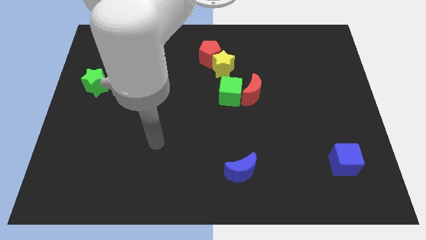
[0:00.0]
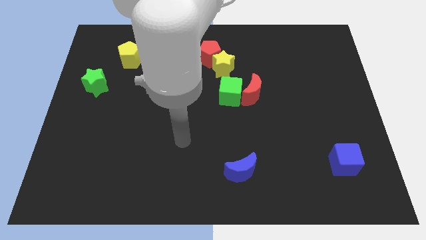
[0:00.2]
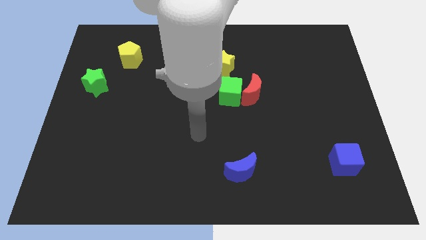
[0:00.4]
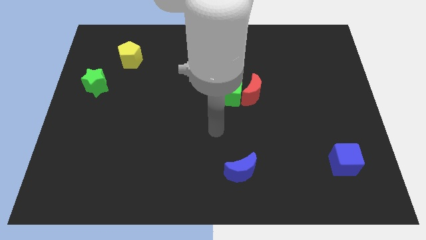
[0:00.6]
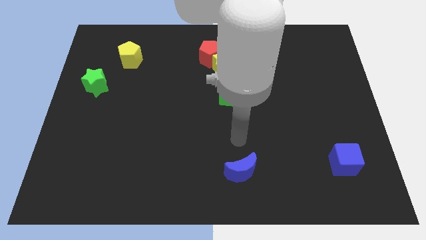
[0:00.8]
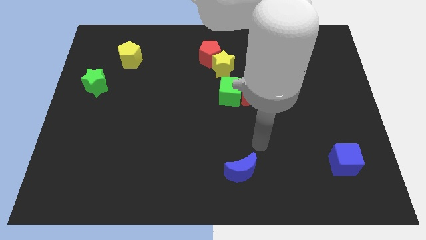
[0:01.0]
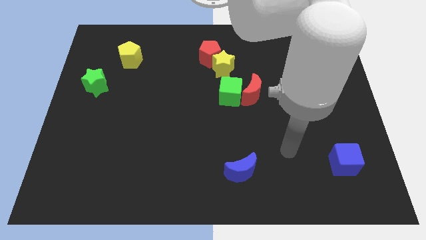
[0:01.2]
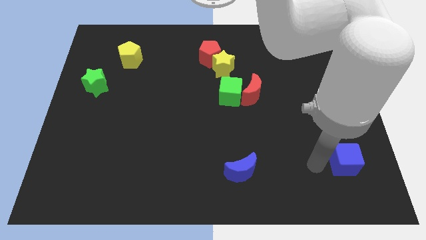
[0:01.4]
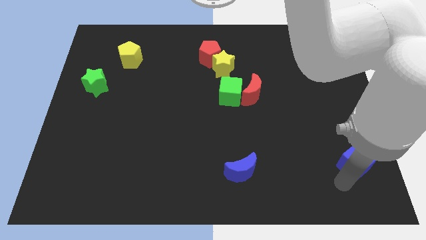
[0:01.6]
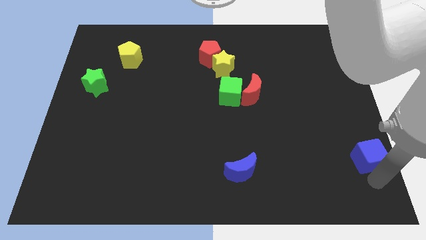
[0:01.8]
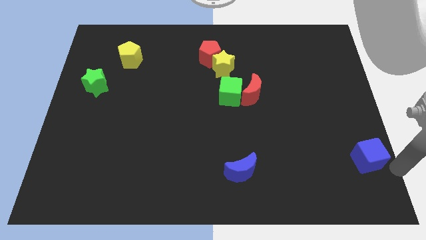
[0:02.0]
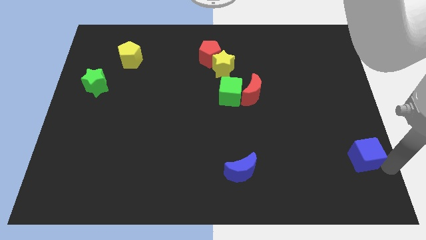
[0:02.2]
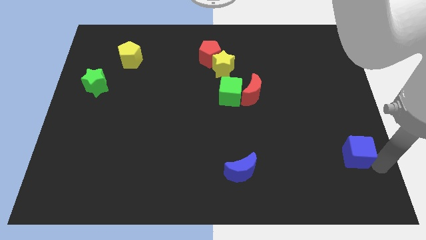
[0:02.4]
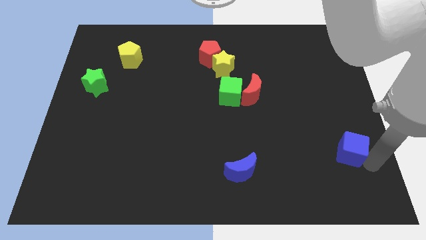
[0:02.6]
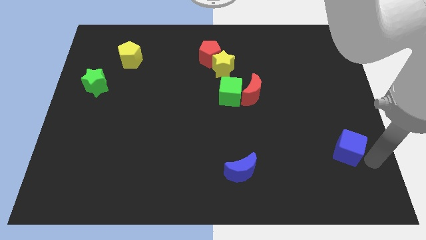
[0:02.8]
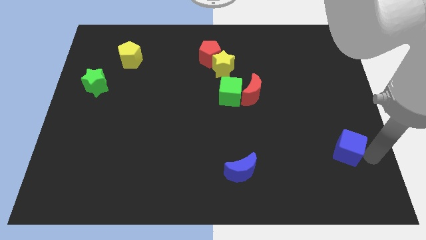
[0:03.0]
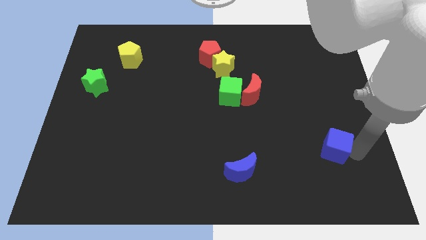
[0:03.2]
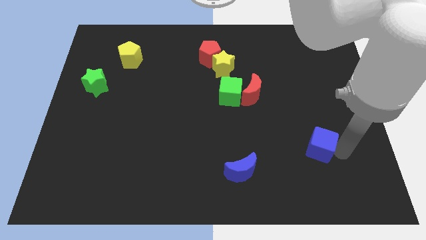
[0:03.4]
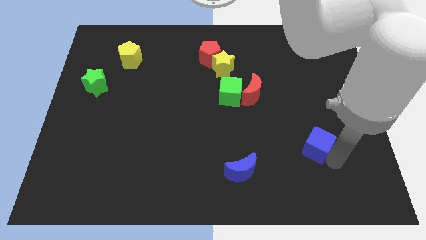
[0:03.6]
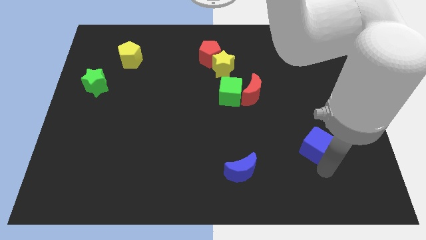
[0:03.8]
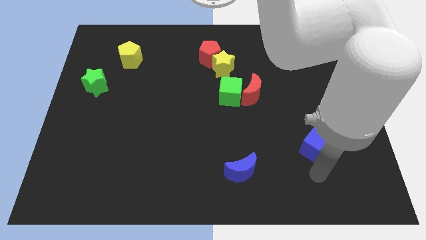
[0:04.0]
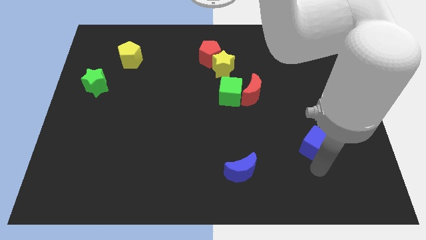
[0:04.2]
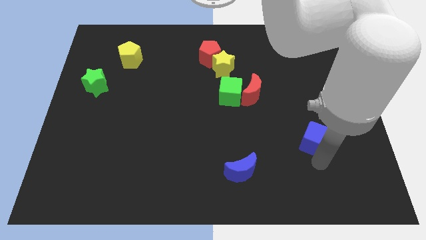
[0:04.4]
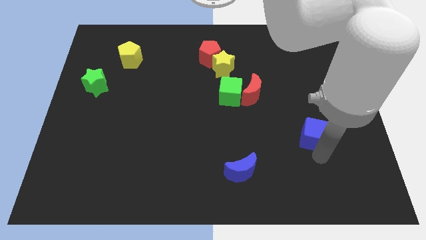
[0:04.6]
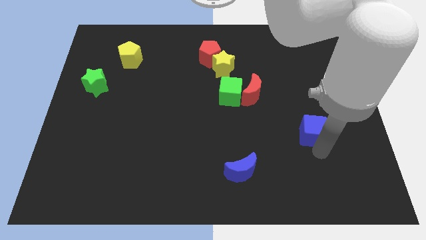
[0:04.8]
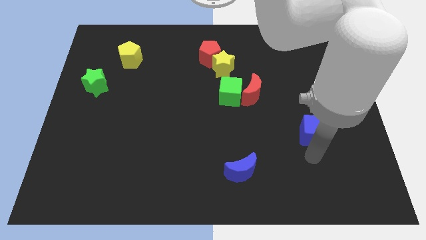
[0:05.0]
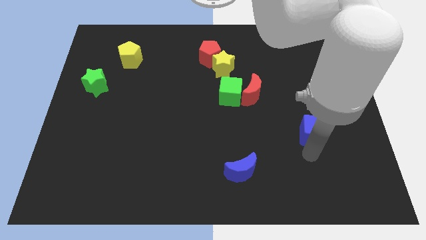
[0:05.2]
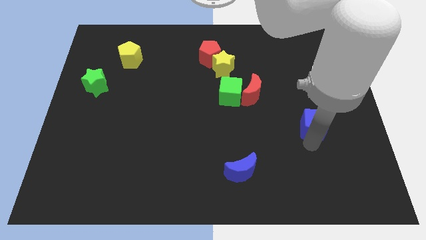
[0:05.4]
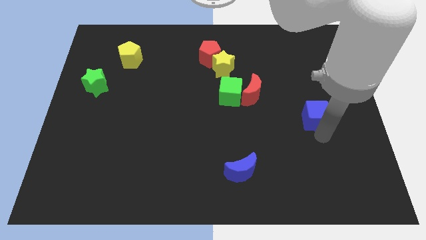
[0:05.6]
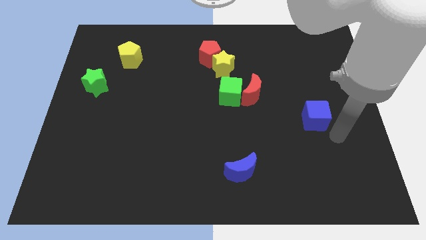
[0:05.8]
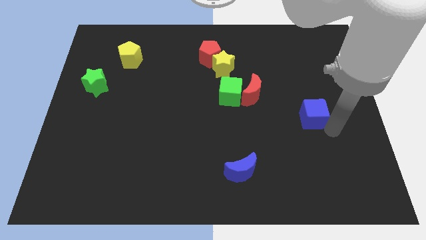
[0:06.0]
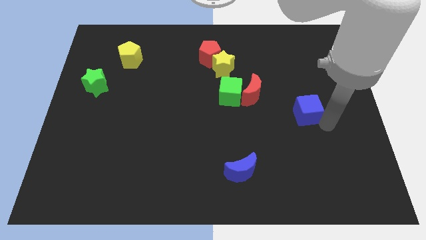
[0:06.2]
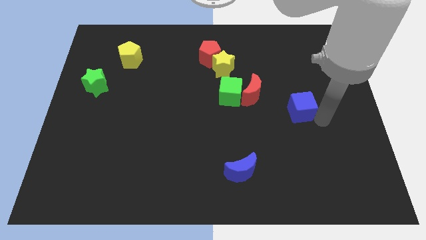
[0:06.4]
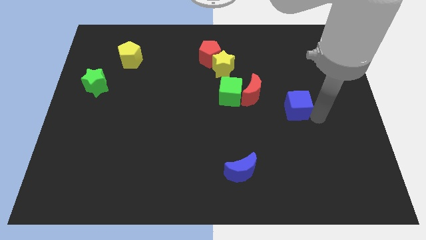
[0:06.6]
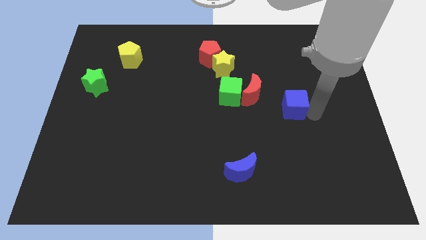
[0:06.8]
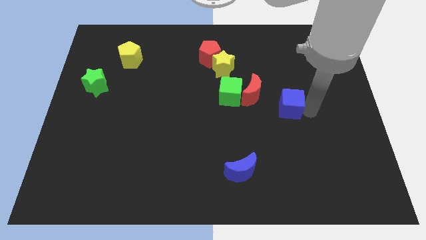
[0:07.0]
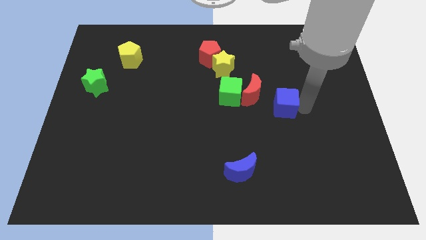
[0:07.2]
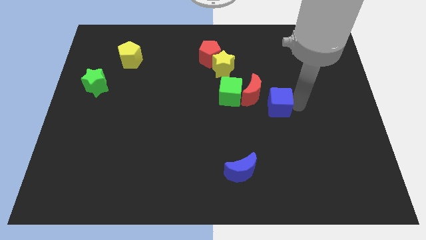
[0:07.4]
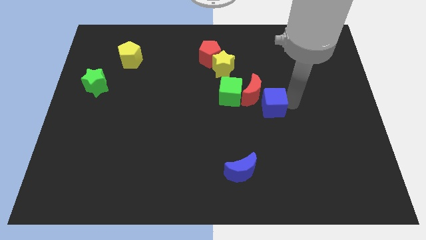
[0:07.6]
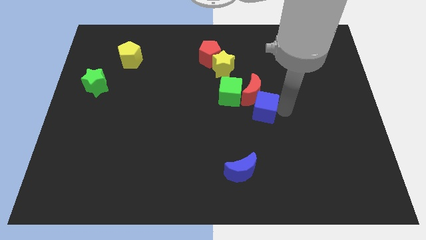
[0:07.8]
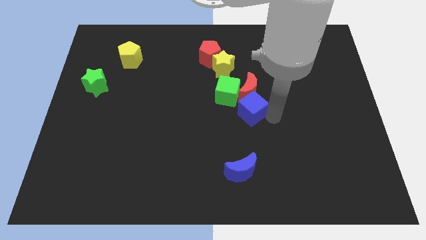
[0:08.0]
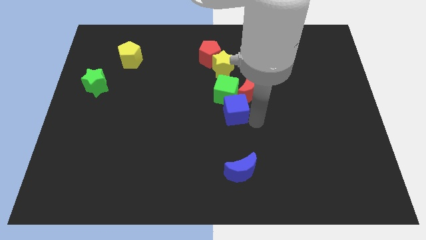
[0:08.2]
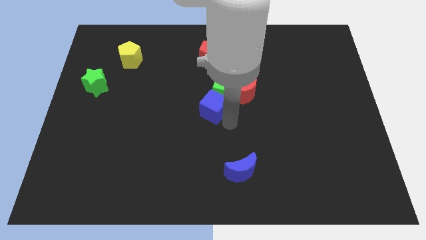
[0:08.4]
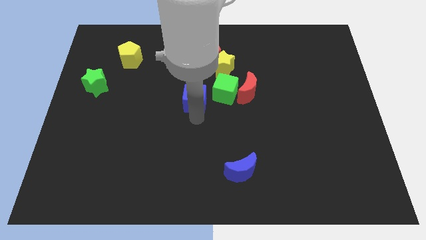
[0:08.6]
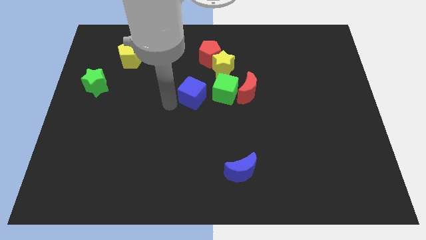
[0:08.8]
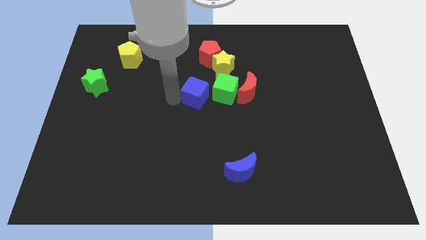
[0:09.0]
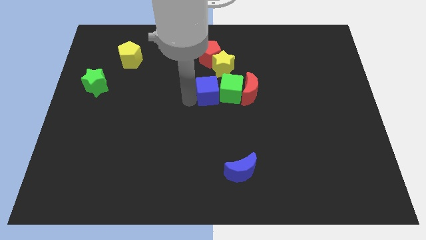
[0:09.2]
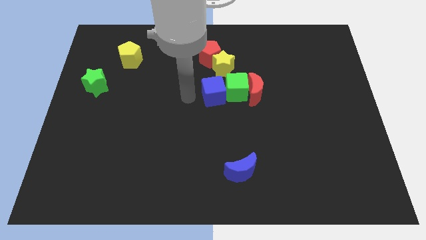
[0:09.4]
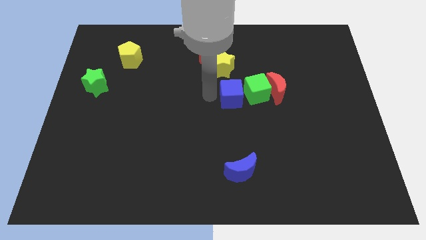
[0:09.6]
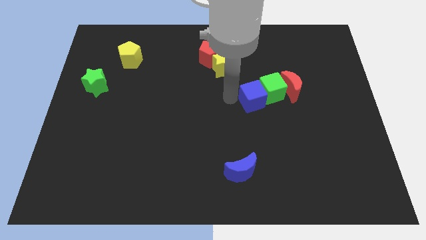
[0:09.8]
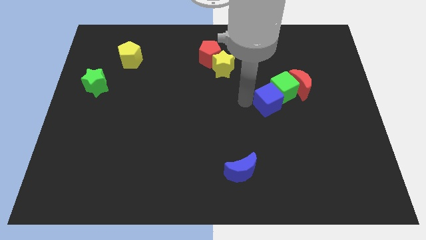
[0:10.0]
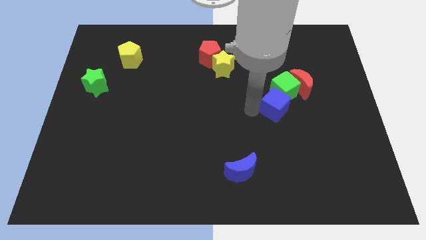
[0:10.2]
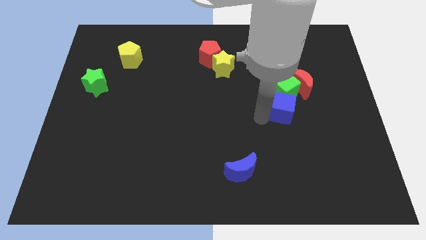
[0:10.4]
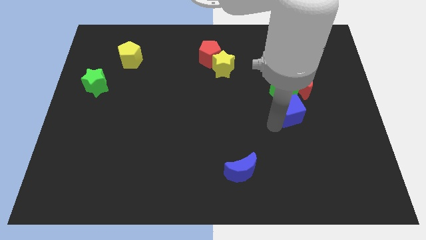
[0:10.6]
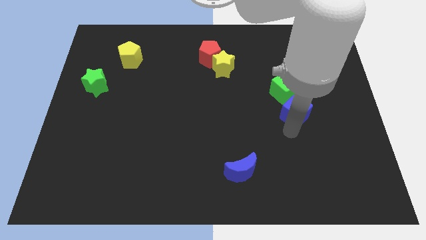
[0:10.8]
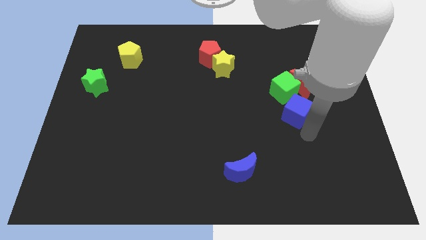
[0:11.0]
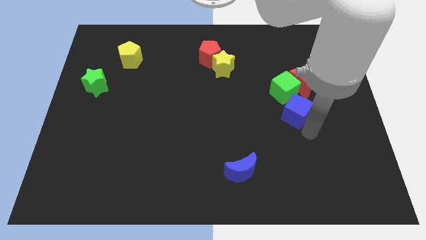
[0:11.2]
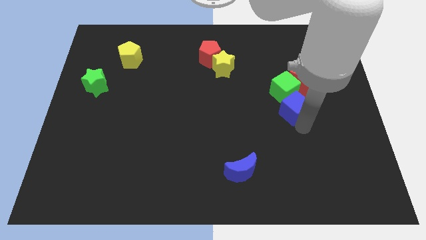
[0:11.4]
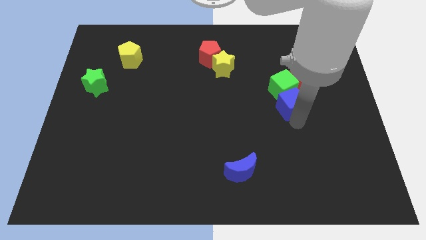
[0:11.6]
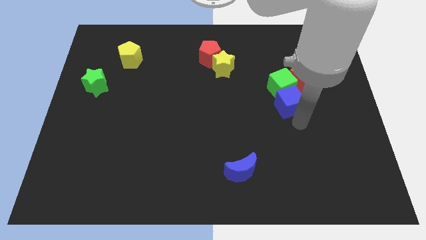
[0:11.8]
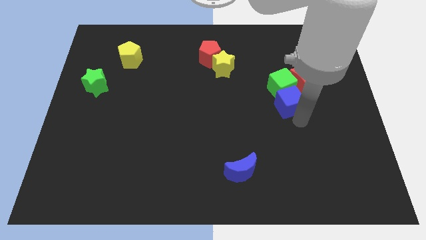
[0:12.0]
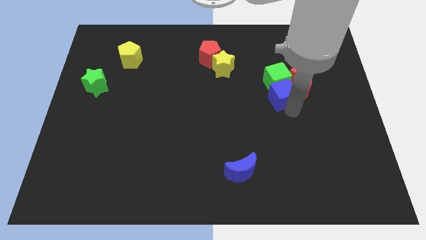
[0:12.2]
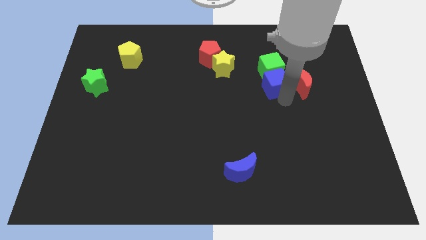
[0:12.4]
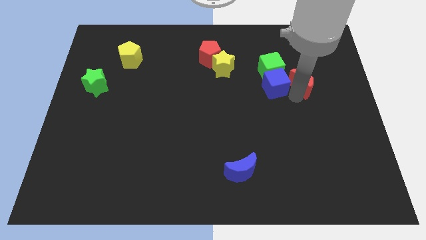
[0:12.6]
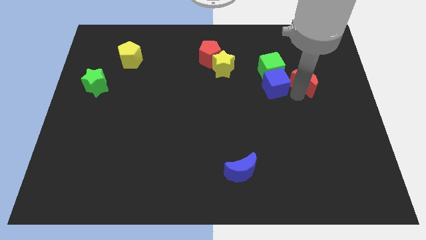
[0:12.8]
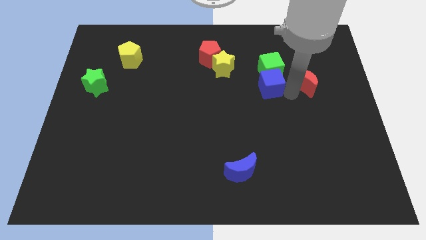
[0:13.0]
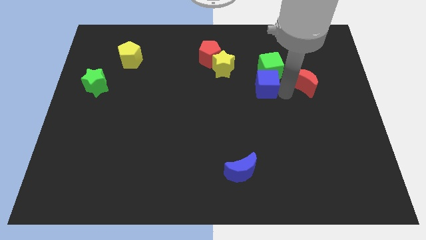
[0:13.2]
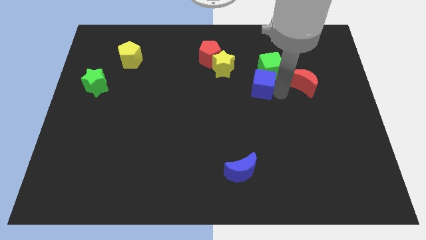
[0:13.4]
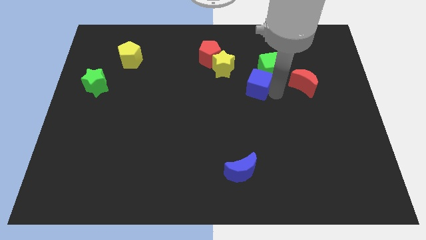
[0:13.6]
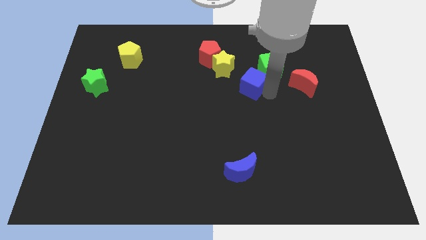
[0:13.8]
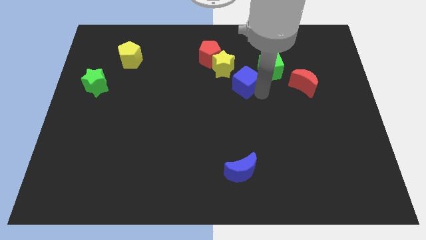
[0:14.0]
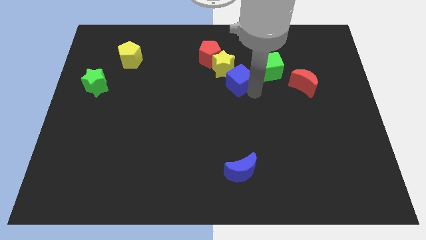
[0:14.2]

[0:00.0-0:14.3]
push the blue cube close to the yellow star
